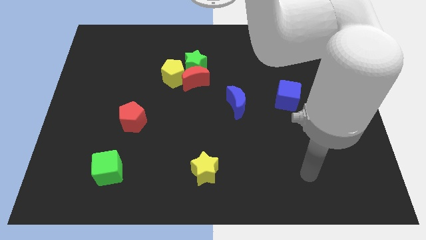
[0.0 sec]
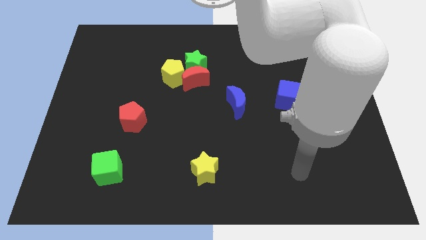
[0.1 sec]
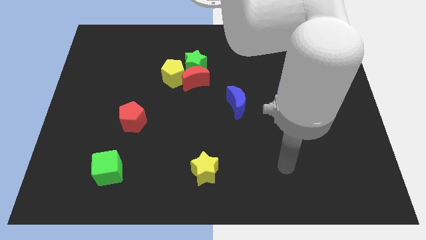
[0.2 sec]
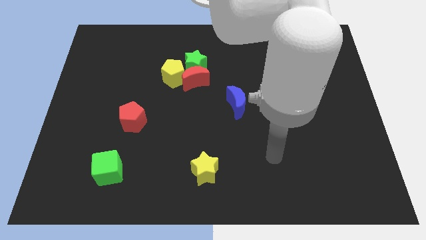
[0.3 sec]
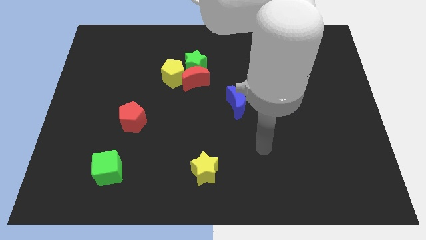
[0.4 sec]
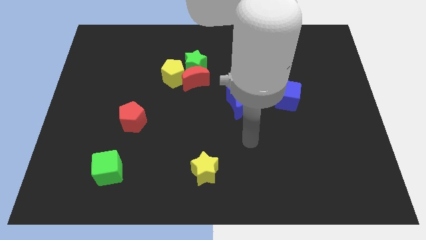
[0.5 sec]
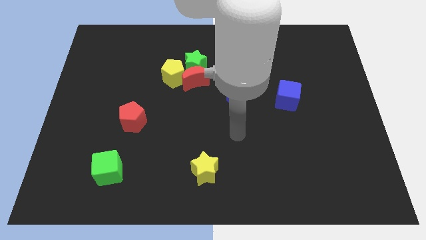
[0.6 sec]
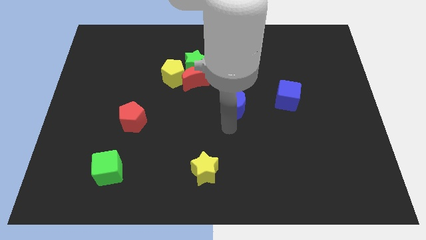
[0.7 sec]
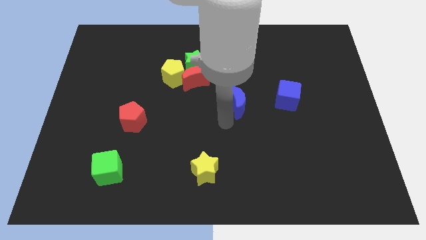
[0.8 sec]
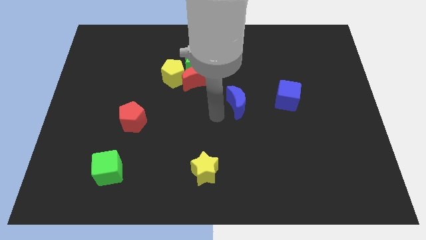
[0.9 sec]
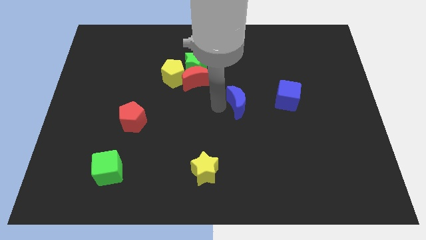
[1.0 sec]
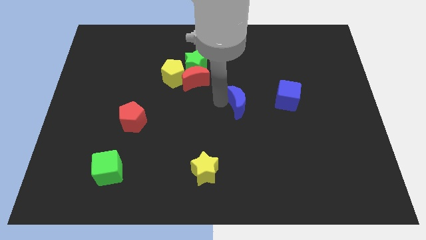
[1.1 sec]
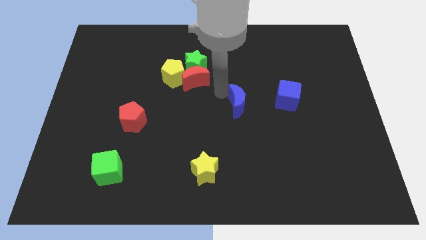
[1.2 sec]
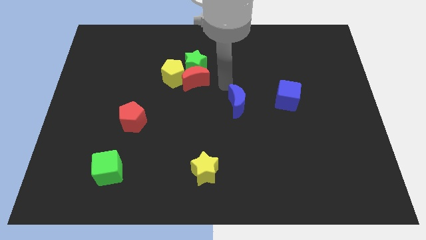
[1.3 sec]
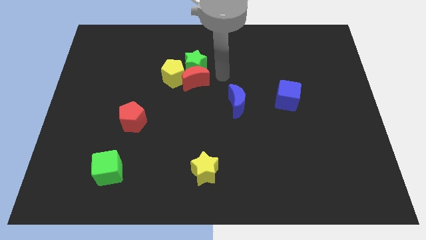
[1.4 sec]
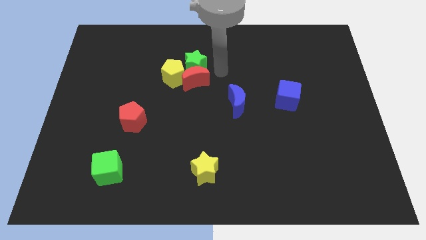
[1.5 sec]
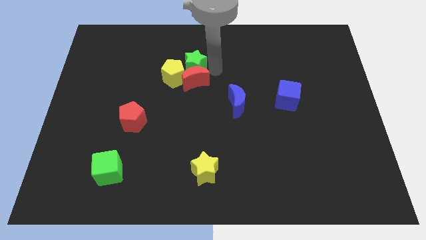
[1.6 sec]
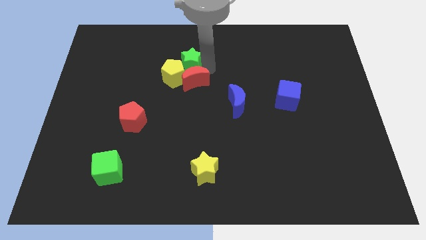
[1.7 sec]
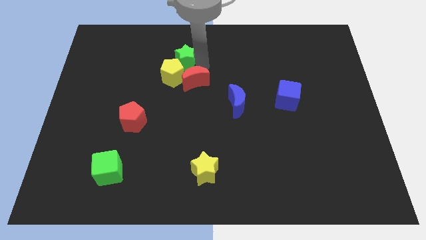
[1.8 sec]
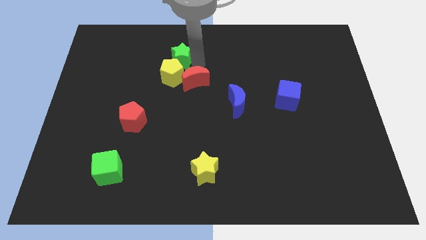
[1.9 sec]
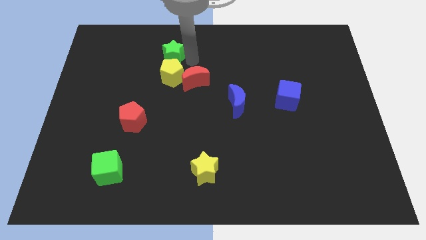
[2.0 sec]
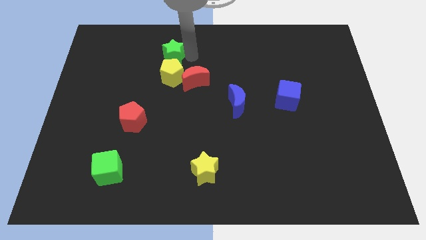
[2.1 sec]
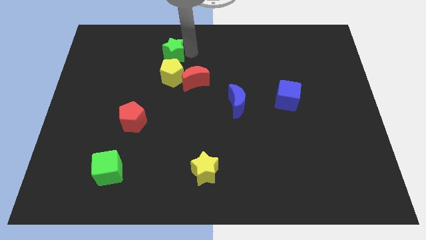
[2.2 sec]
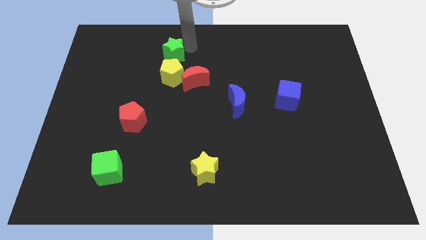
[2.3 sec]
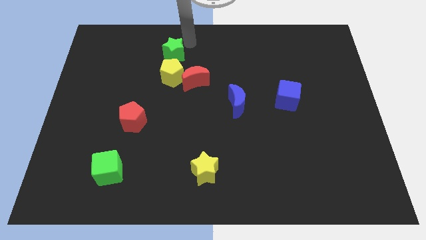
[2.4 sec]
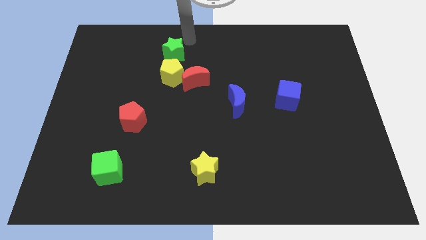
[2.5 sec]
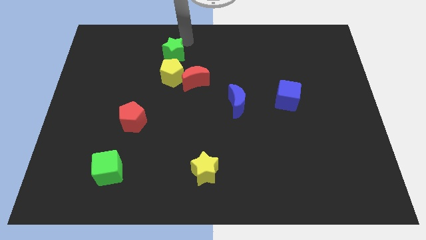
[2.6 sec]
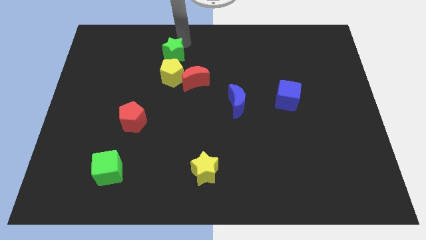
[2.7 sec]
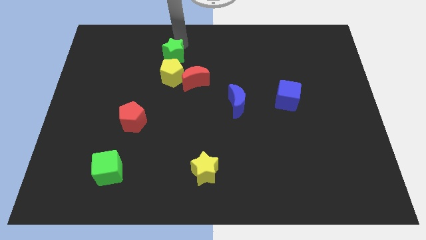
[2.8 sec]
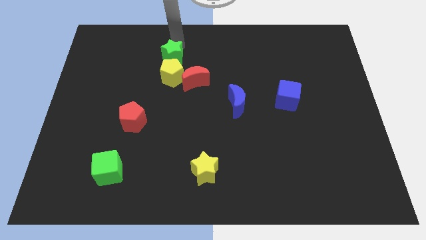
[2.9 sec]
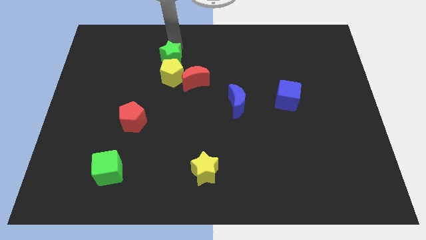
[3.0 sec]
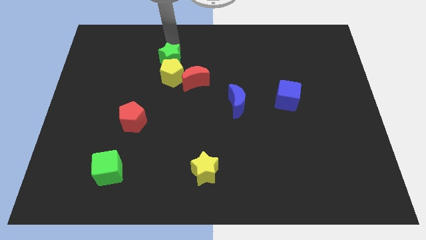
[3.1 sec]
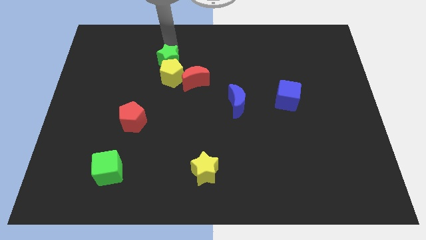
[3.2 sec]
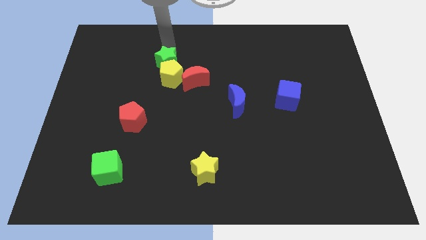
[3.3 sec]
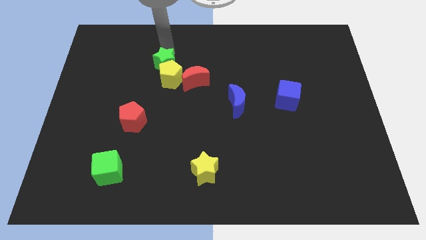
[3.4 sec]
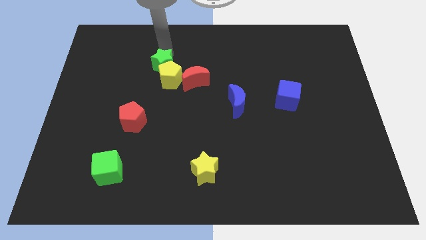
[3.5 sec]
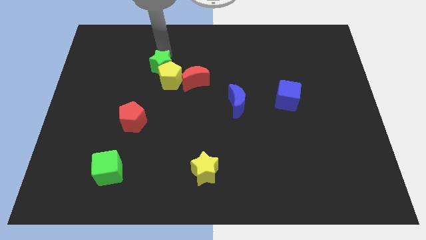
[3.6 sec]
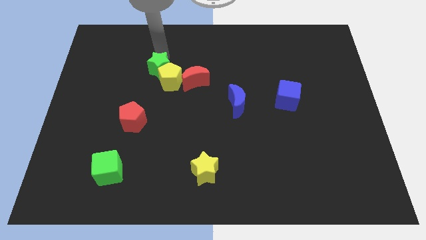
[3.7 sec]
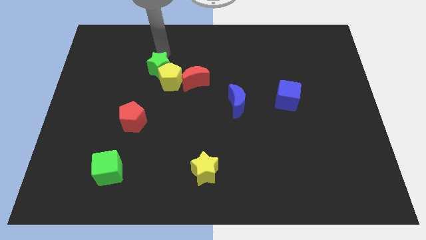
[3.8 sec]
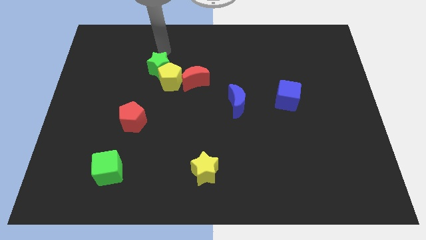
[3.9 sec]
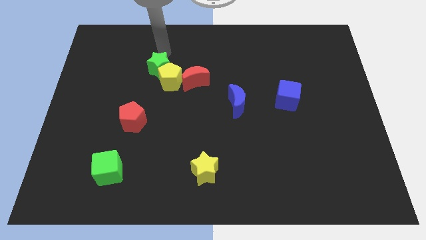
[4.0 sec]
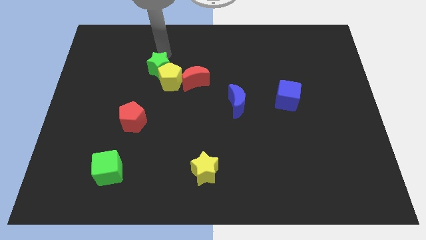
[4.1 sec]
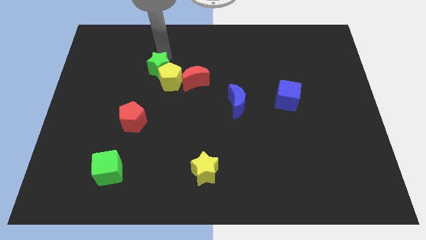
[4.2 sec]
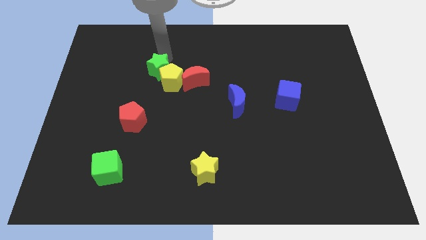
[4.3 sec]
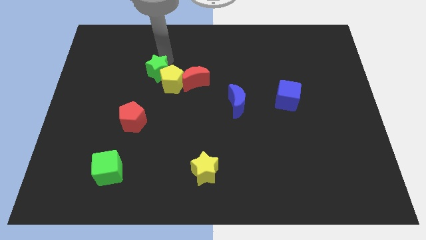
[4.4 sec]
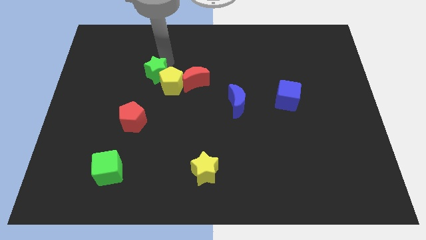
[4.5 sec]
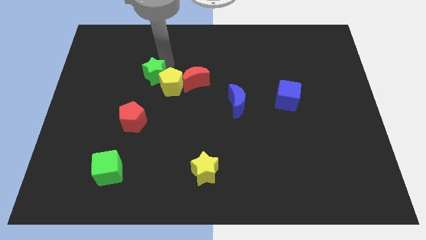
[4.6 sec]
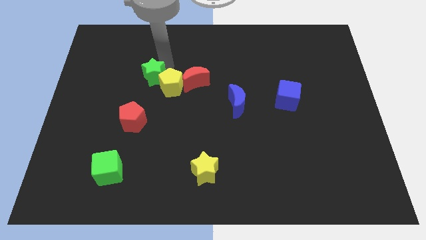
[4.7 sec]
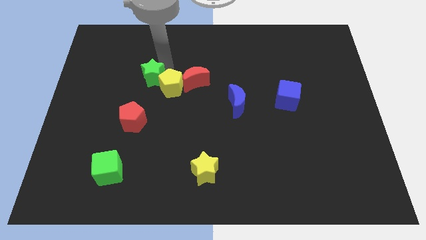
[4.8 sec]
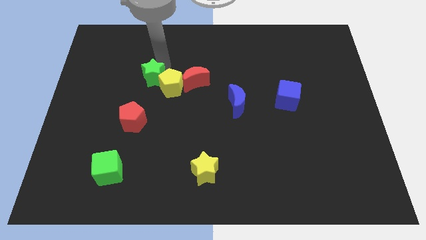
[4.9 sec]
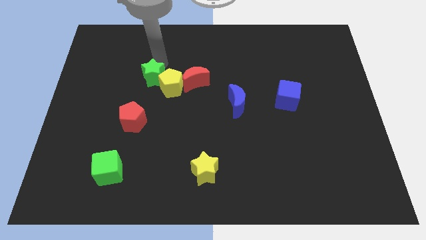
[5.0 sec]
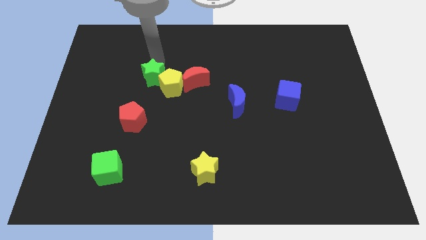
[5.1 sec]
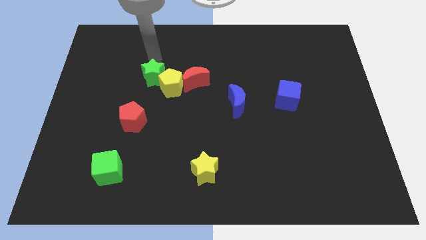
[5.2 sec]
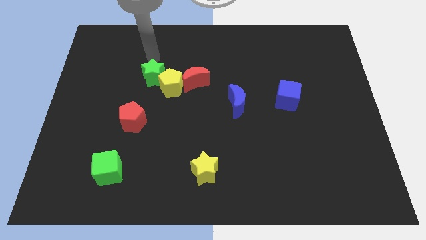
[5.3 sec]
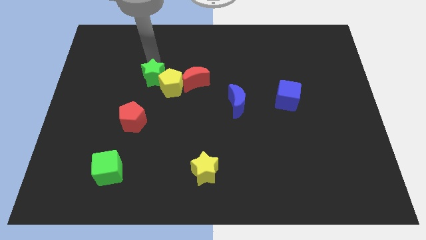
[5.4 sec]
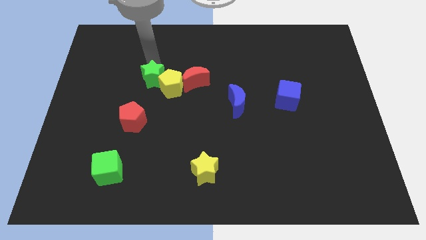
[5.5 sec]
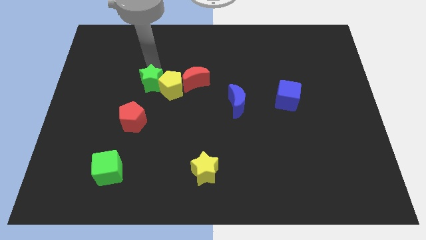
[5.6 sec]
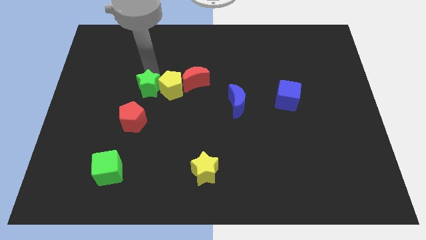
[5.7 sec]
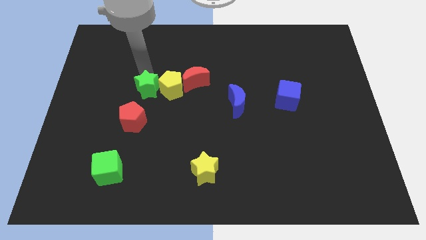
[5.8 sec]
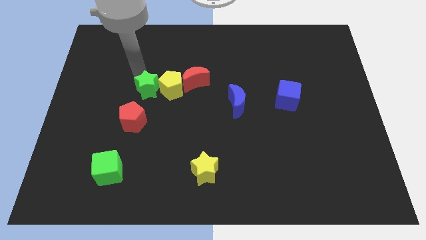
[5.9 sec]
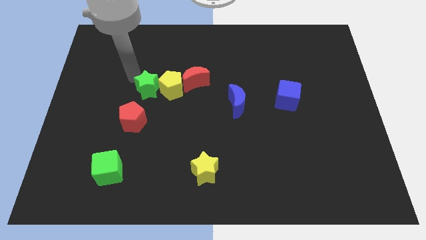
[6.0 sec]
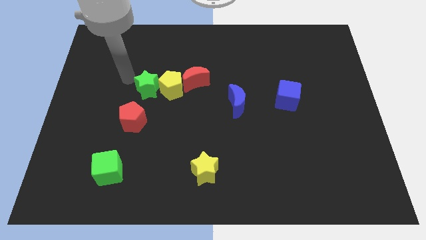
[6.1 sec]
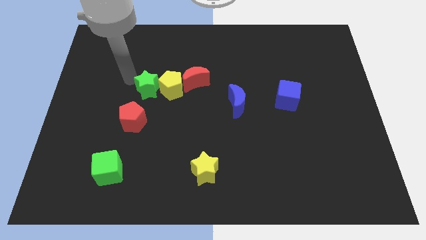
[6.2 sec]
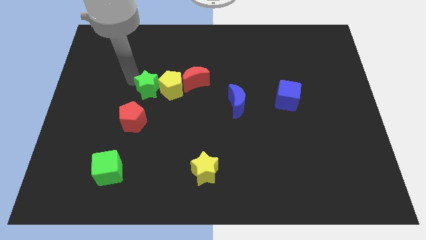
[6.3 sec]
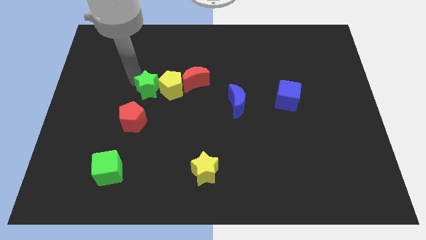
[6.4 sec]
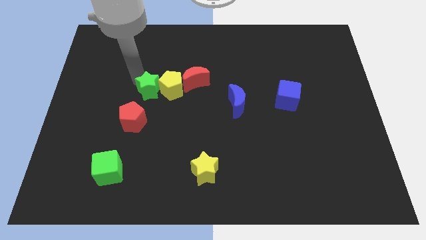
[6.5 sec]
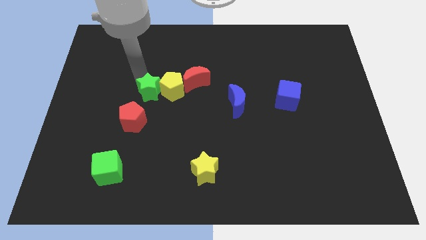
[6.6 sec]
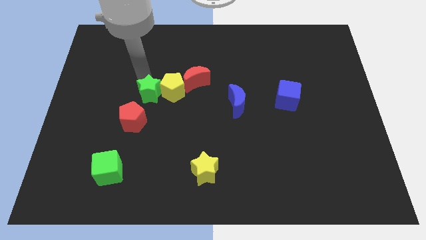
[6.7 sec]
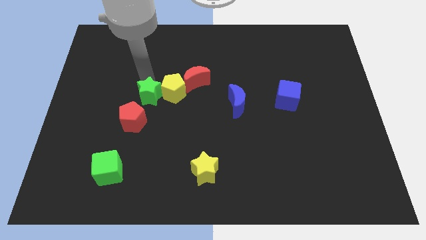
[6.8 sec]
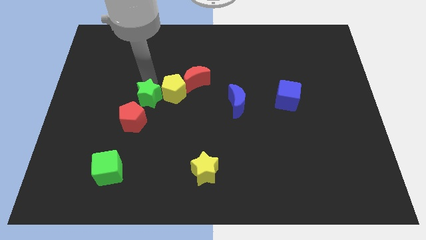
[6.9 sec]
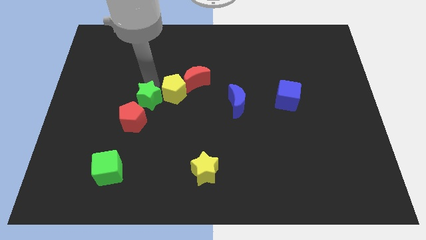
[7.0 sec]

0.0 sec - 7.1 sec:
move the green star to the bottom left of the red moon
